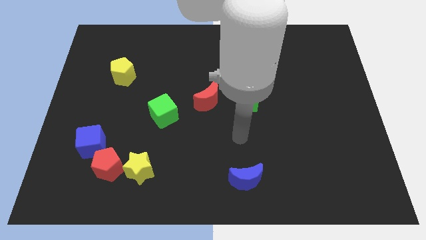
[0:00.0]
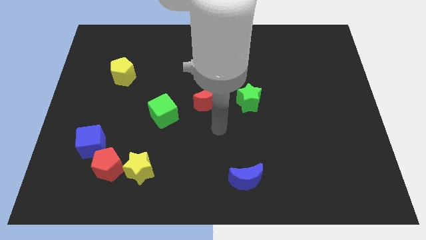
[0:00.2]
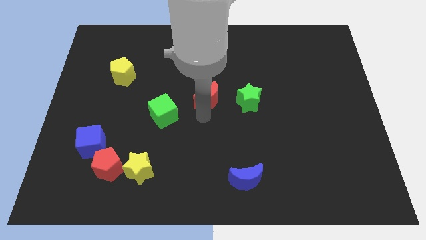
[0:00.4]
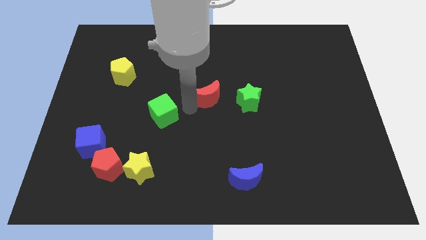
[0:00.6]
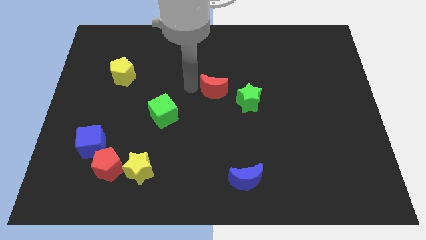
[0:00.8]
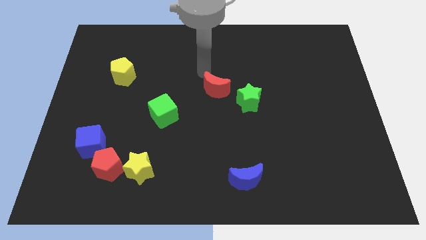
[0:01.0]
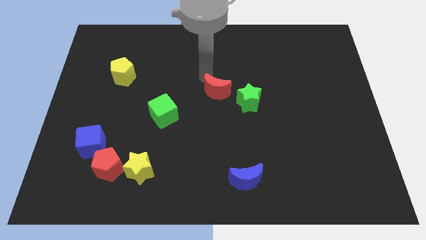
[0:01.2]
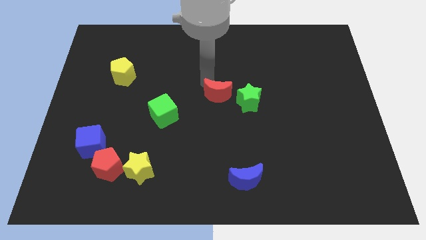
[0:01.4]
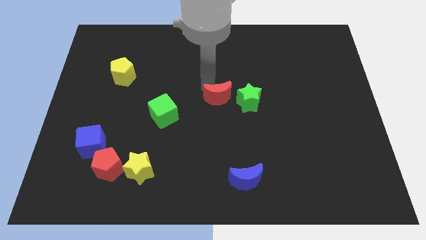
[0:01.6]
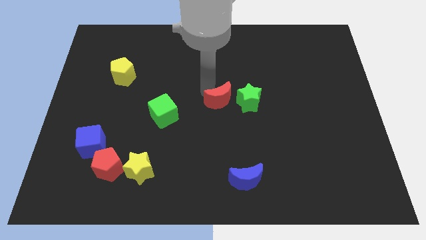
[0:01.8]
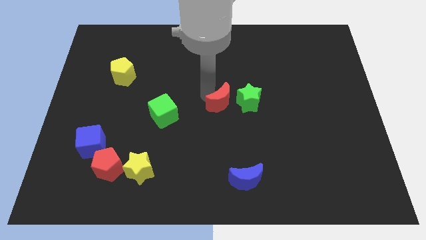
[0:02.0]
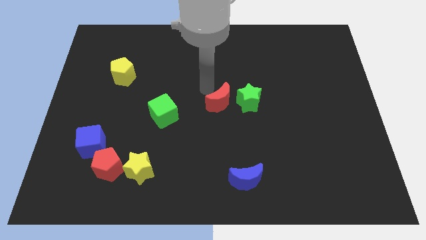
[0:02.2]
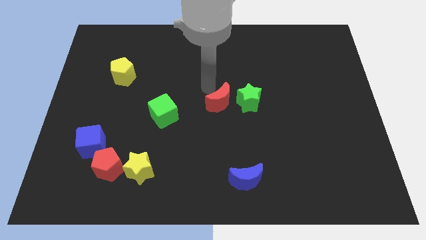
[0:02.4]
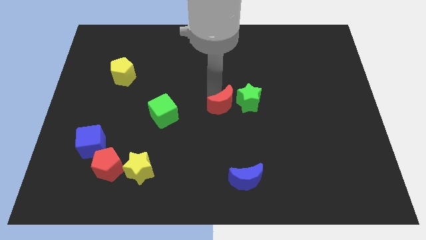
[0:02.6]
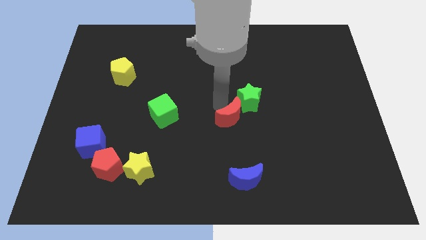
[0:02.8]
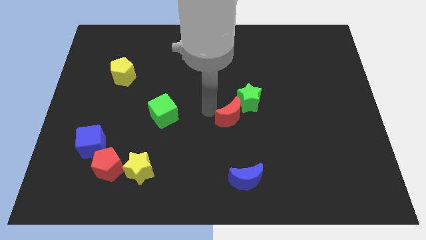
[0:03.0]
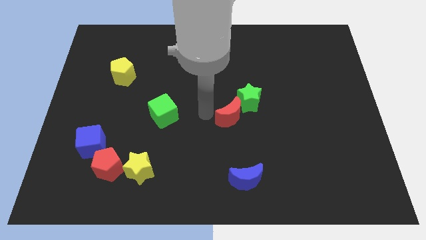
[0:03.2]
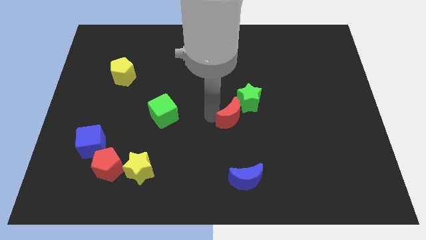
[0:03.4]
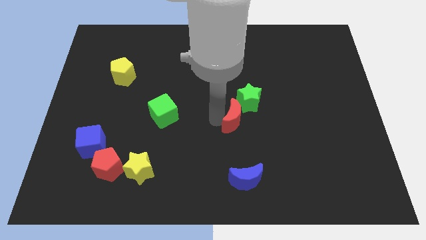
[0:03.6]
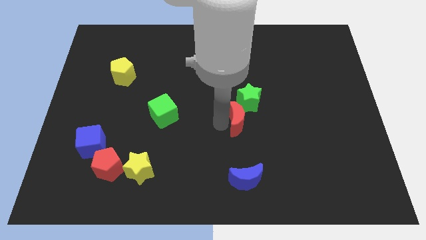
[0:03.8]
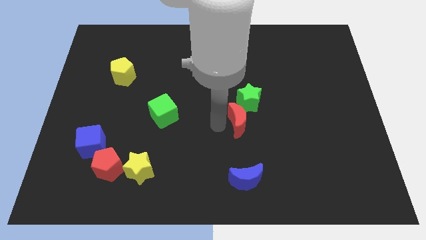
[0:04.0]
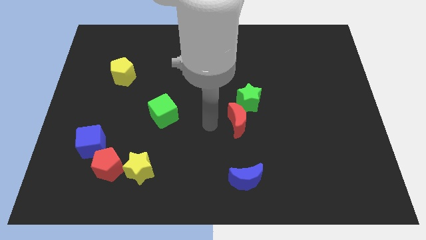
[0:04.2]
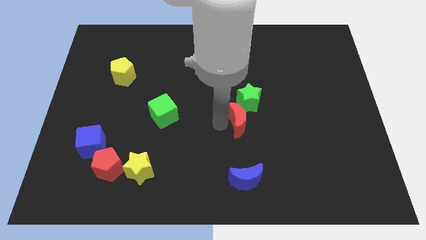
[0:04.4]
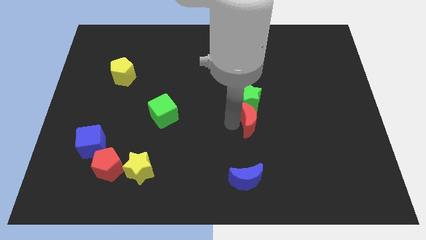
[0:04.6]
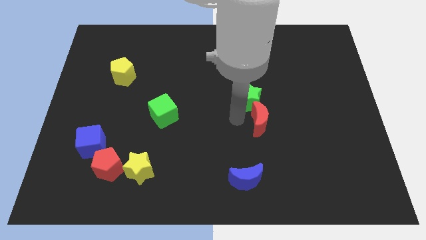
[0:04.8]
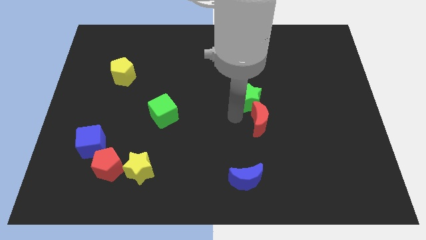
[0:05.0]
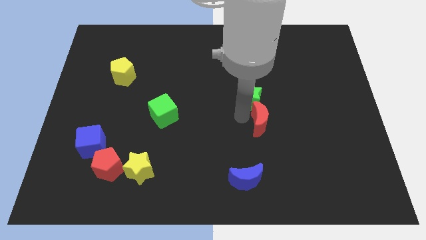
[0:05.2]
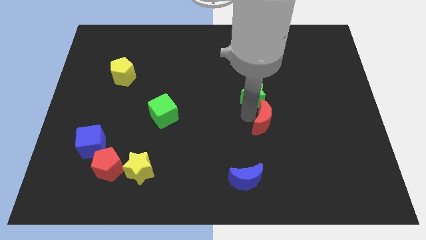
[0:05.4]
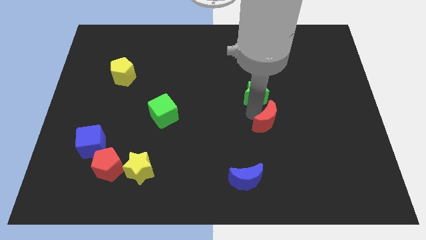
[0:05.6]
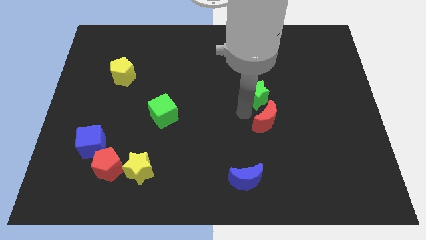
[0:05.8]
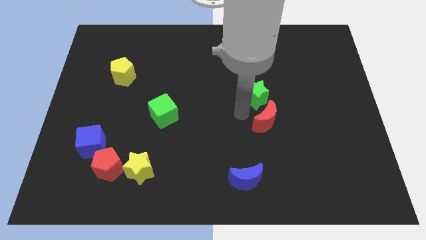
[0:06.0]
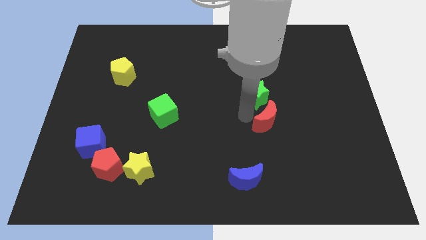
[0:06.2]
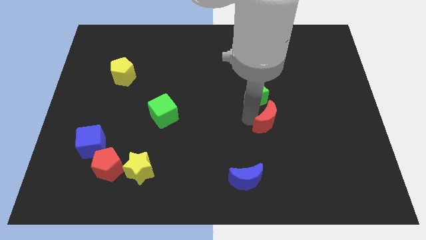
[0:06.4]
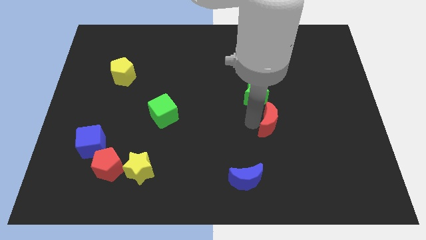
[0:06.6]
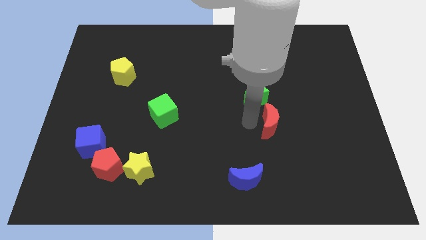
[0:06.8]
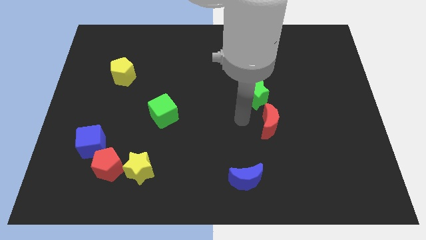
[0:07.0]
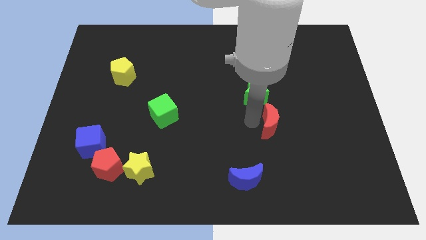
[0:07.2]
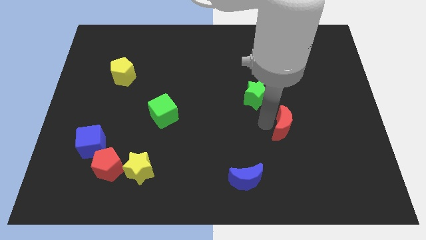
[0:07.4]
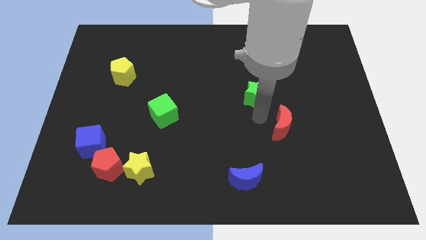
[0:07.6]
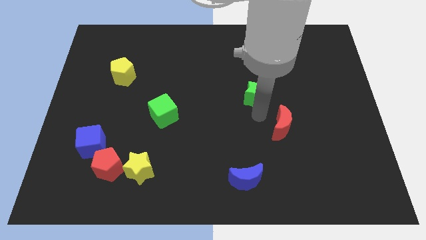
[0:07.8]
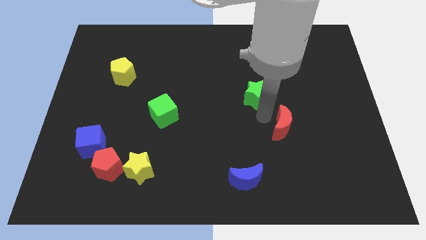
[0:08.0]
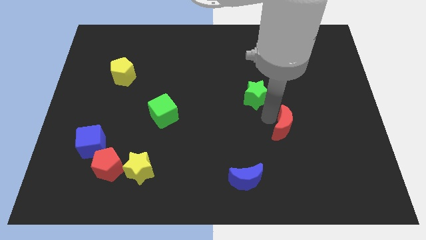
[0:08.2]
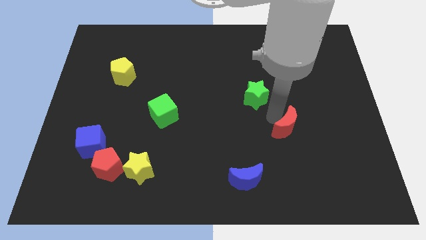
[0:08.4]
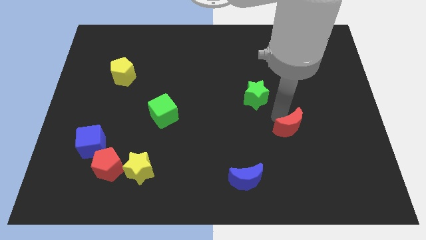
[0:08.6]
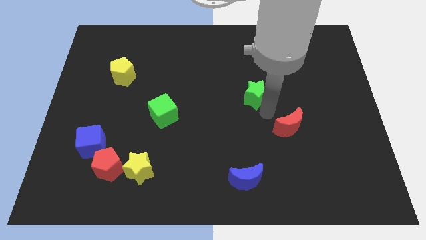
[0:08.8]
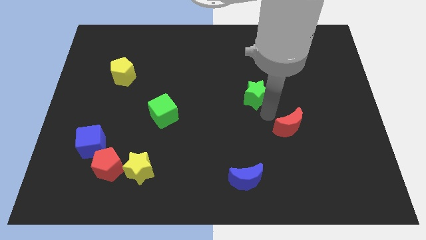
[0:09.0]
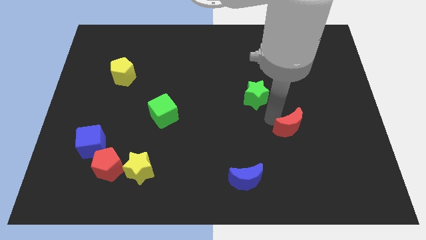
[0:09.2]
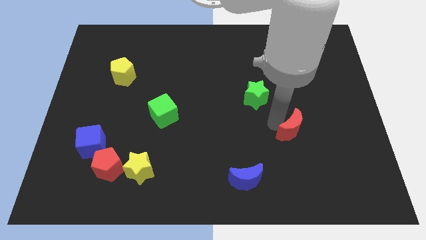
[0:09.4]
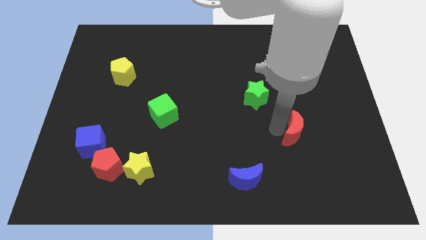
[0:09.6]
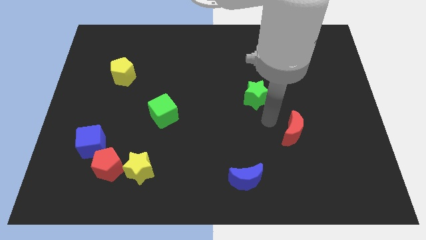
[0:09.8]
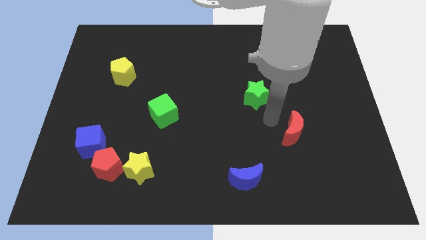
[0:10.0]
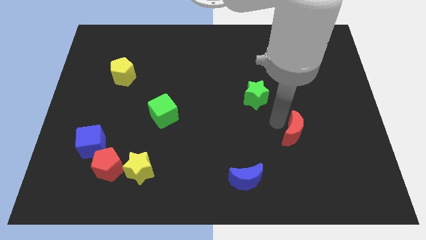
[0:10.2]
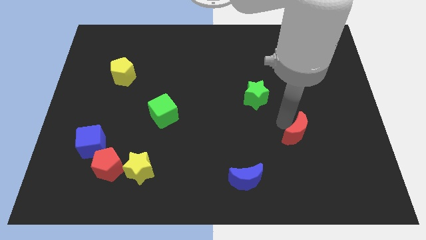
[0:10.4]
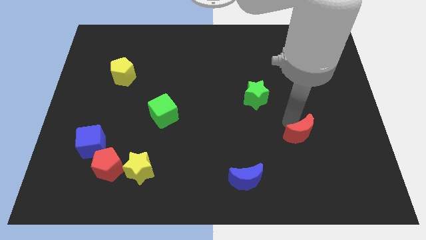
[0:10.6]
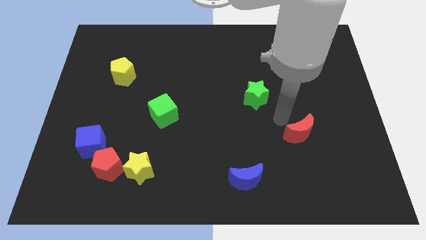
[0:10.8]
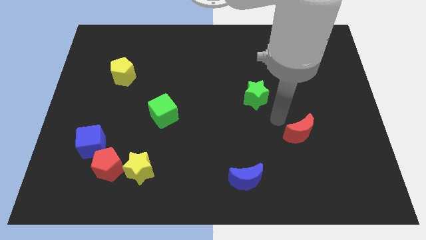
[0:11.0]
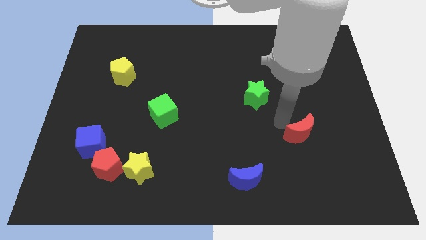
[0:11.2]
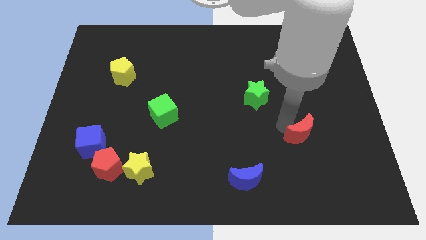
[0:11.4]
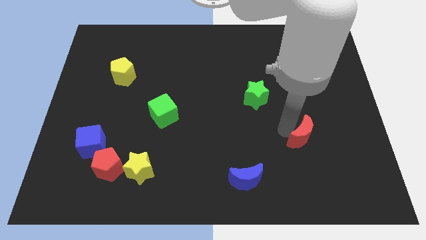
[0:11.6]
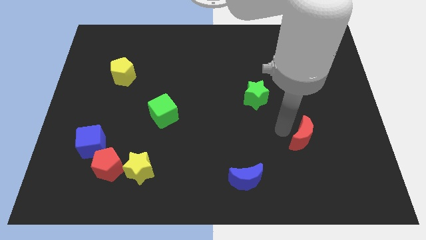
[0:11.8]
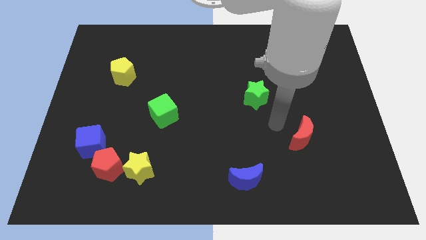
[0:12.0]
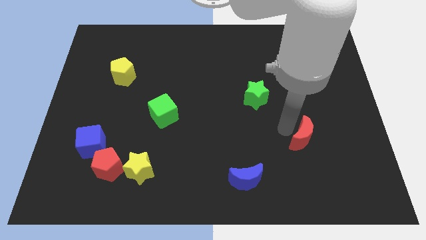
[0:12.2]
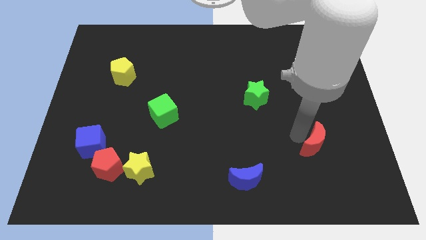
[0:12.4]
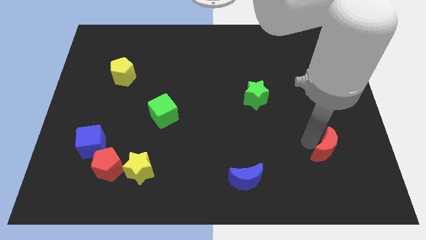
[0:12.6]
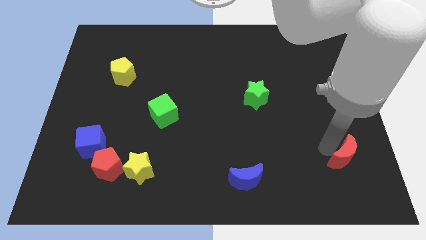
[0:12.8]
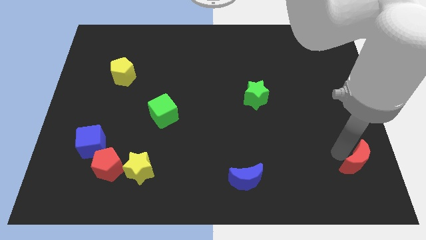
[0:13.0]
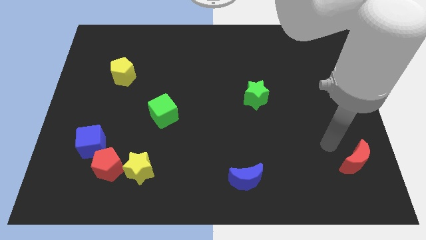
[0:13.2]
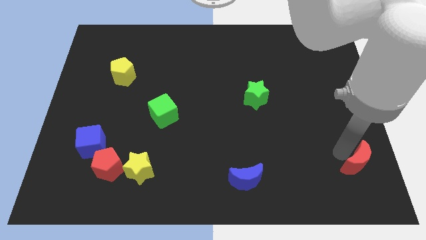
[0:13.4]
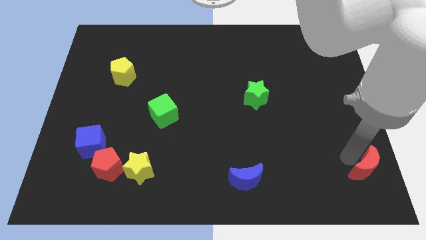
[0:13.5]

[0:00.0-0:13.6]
slide the red moon to the lower right corner
